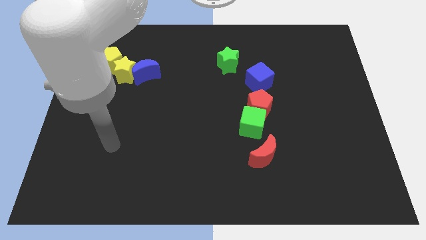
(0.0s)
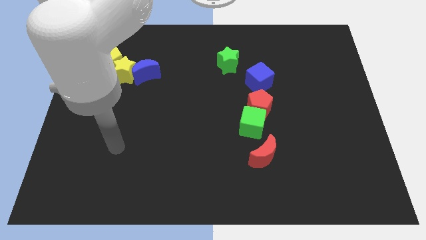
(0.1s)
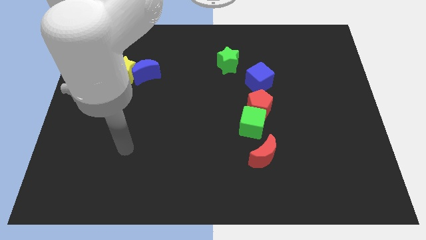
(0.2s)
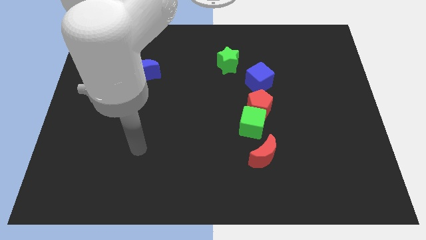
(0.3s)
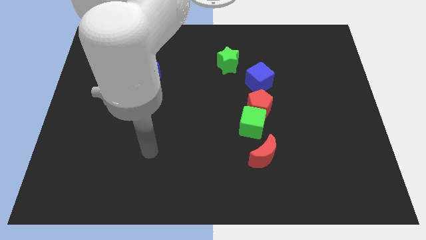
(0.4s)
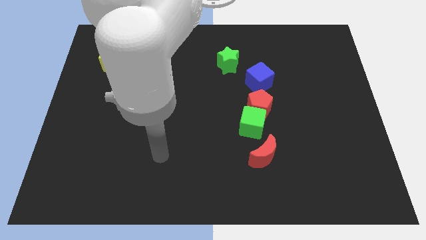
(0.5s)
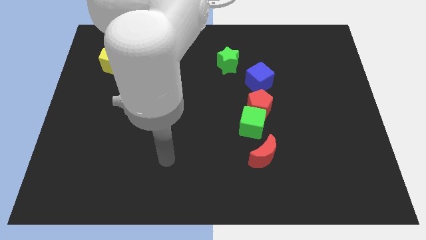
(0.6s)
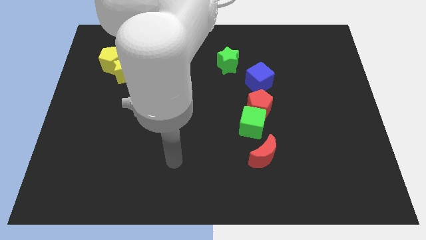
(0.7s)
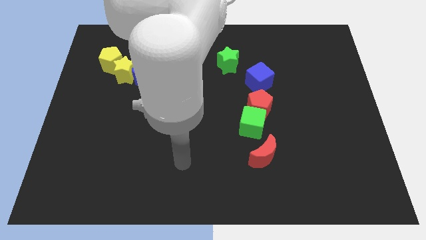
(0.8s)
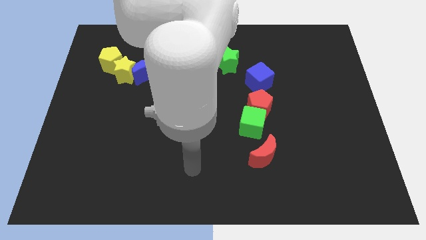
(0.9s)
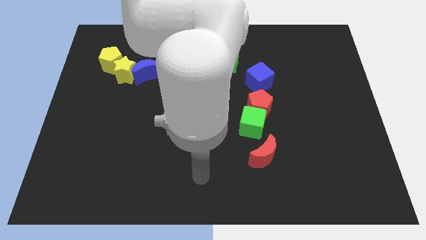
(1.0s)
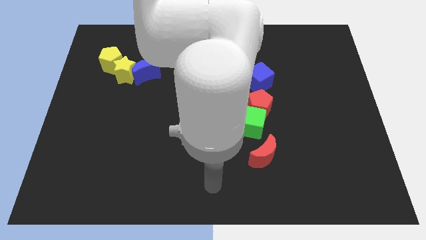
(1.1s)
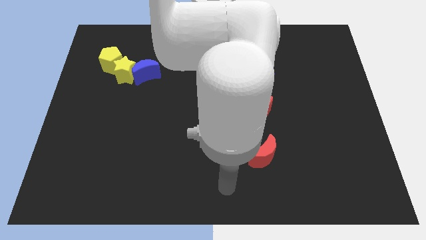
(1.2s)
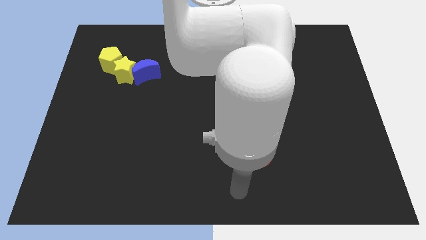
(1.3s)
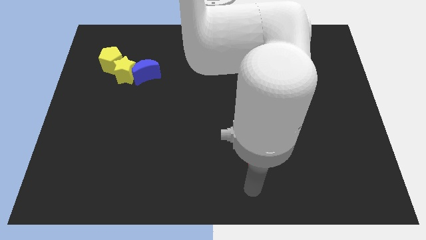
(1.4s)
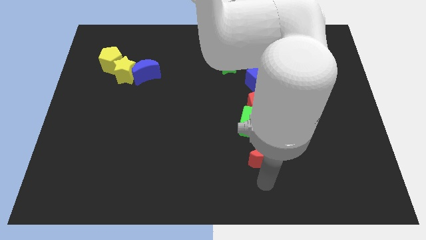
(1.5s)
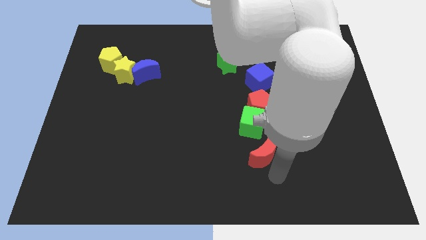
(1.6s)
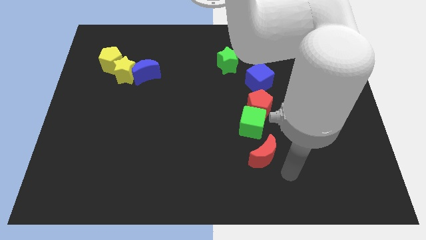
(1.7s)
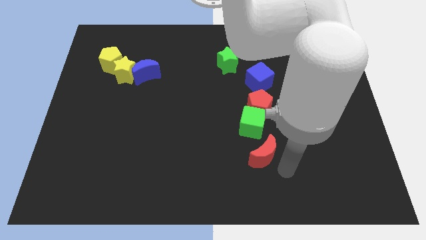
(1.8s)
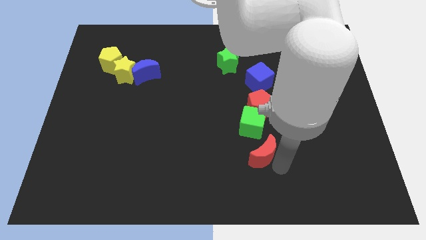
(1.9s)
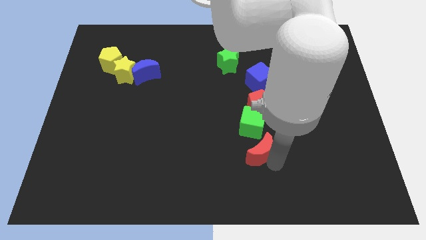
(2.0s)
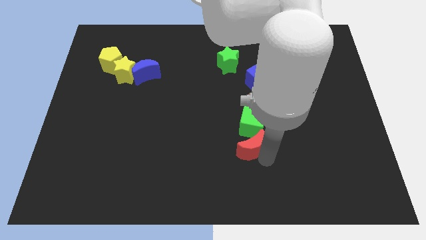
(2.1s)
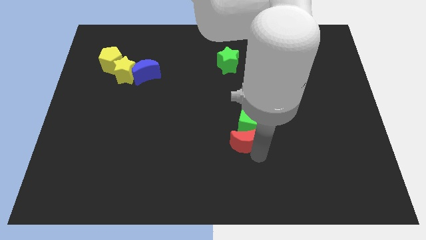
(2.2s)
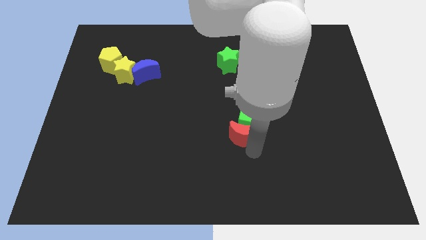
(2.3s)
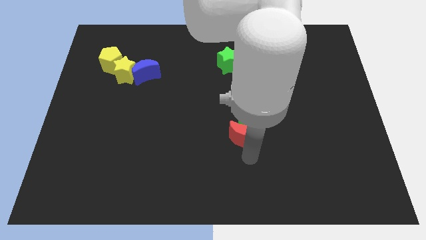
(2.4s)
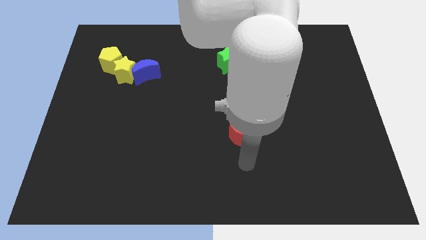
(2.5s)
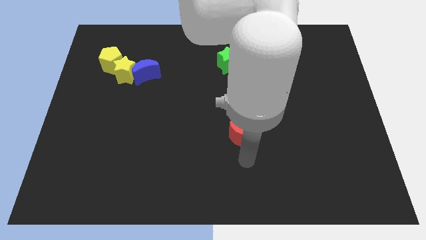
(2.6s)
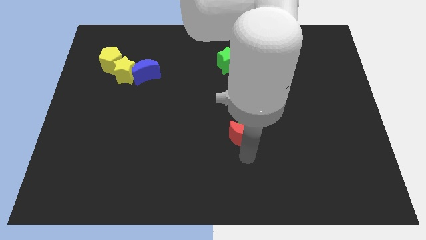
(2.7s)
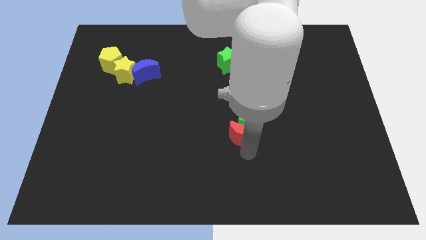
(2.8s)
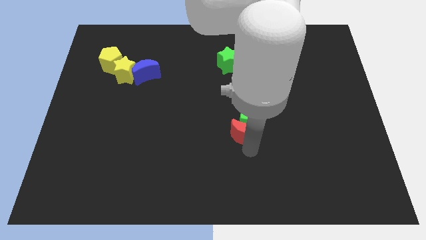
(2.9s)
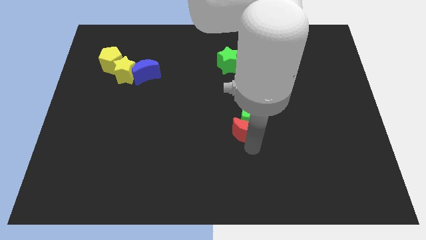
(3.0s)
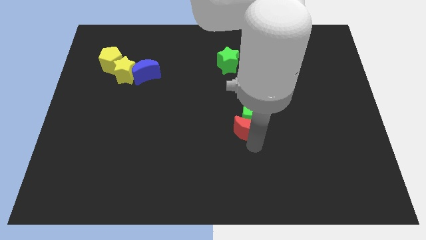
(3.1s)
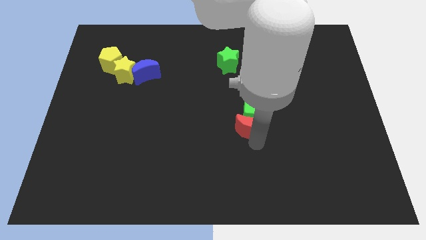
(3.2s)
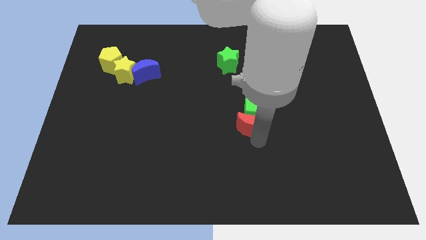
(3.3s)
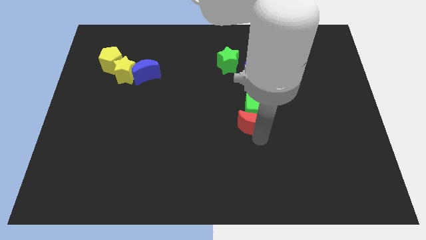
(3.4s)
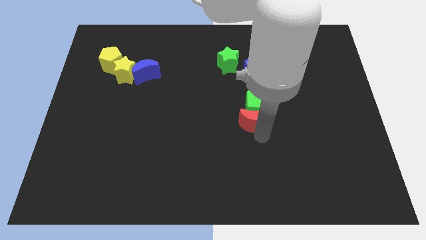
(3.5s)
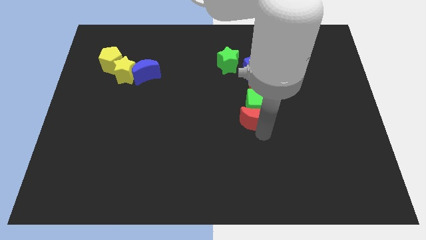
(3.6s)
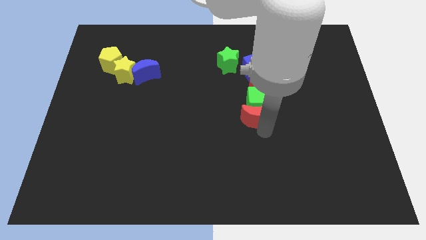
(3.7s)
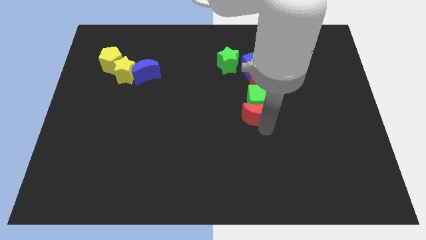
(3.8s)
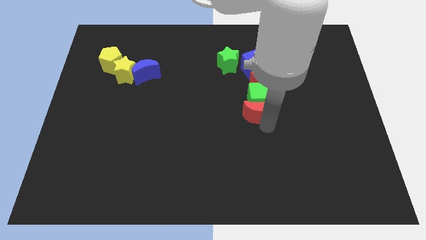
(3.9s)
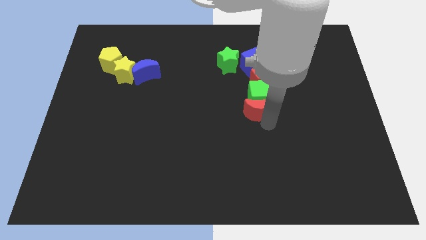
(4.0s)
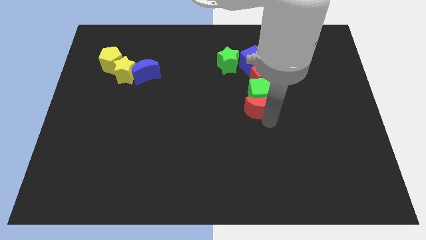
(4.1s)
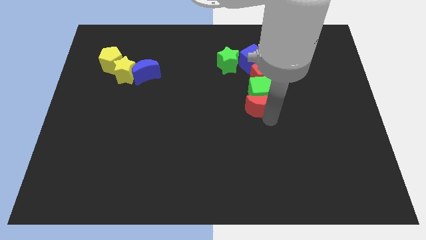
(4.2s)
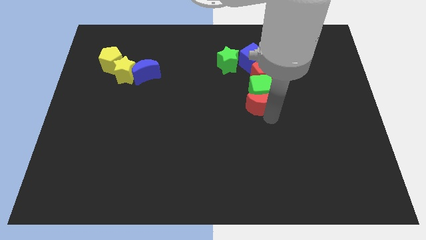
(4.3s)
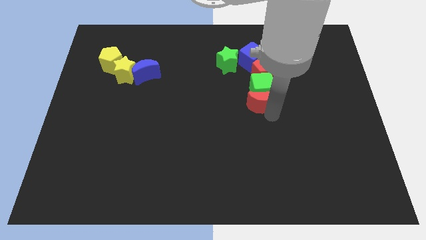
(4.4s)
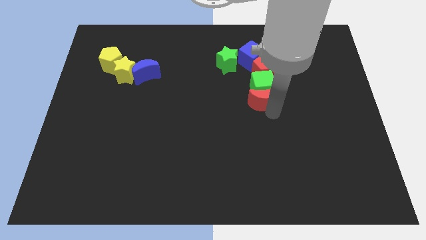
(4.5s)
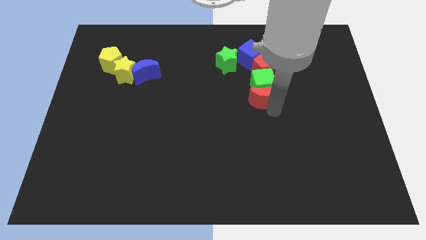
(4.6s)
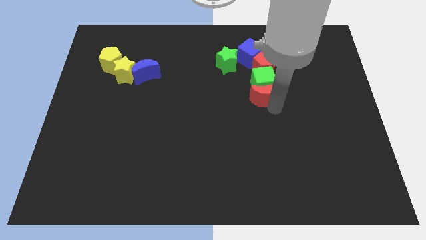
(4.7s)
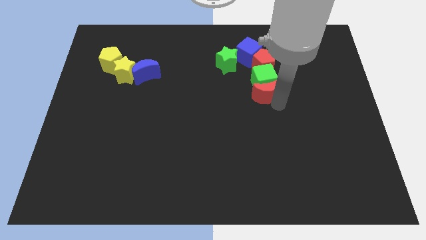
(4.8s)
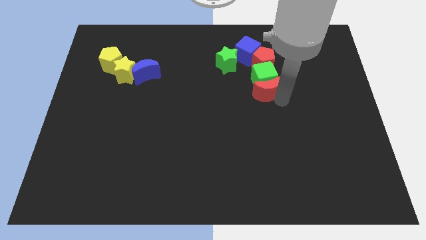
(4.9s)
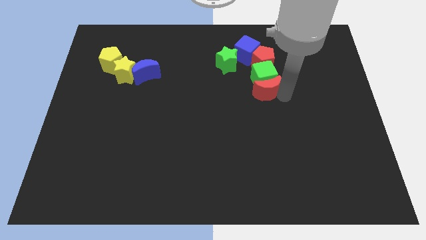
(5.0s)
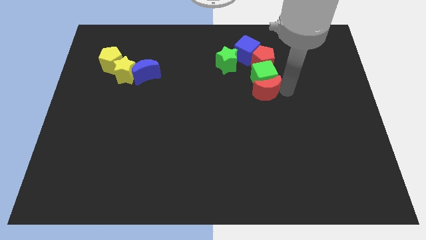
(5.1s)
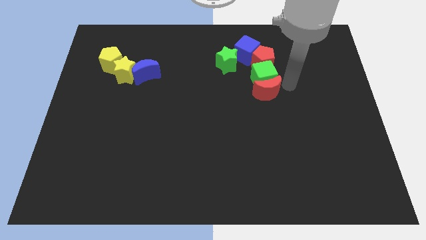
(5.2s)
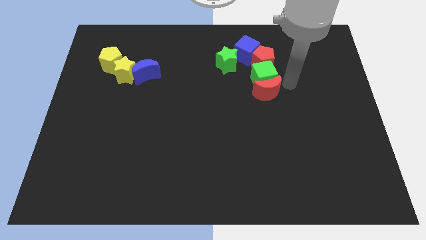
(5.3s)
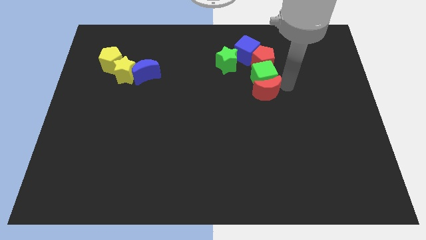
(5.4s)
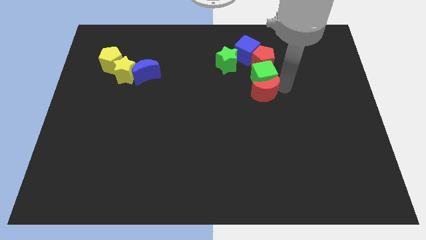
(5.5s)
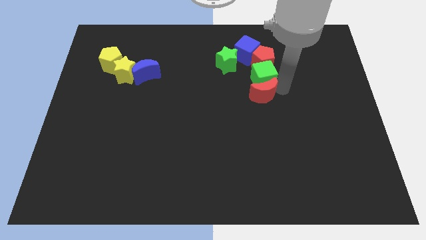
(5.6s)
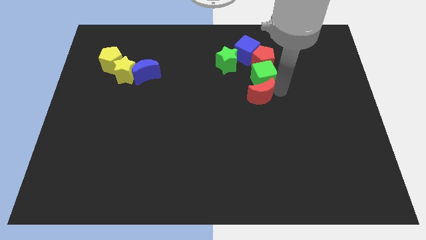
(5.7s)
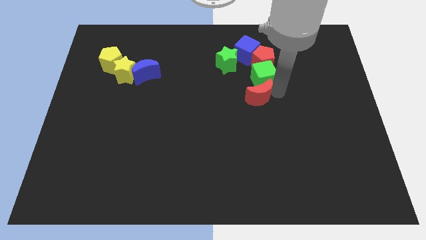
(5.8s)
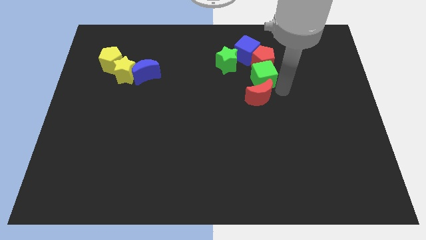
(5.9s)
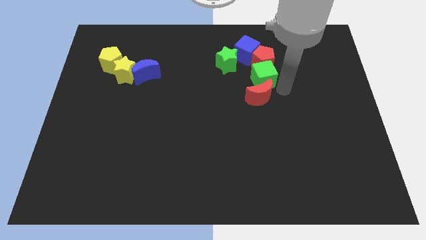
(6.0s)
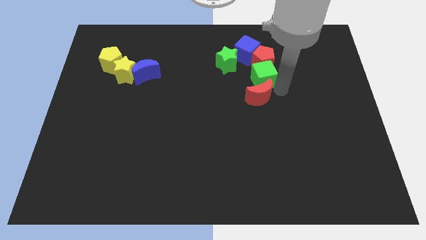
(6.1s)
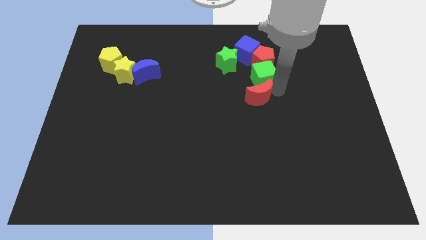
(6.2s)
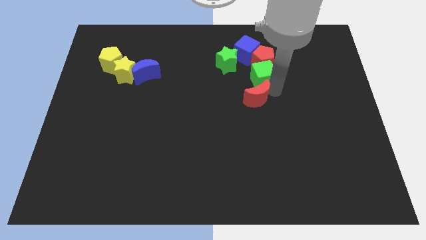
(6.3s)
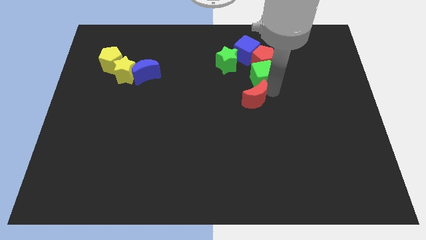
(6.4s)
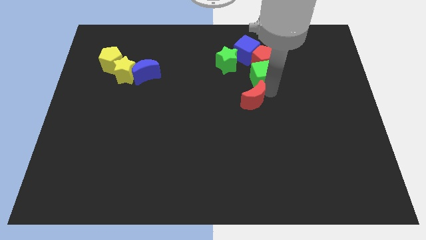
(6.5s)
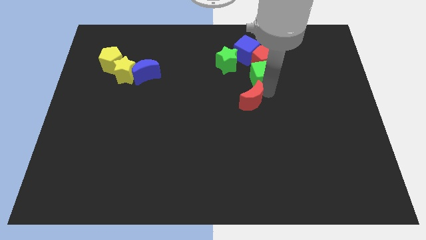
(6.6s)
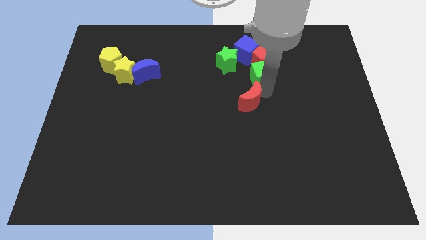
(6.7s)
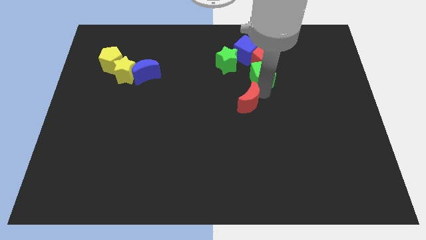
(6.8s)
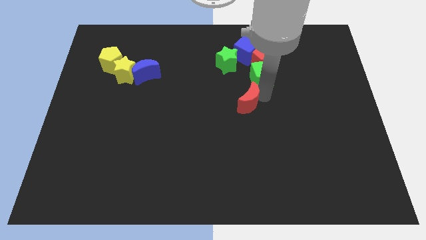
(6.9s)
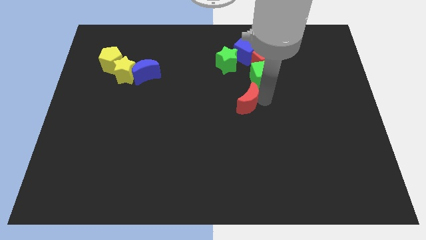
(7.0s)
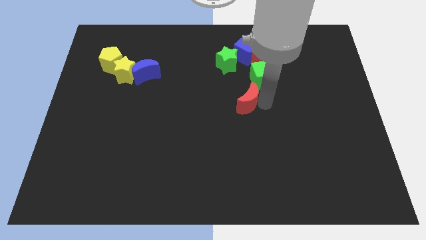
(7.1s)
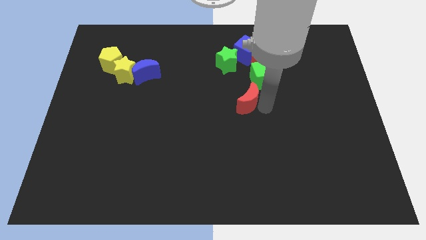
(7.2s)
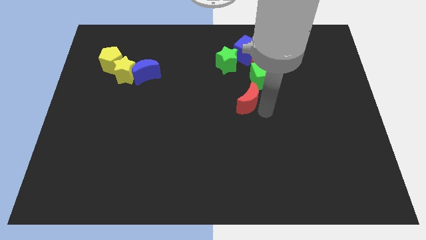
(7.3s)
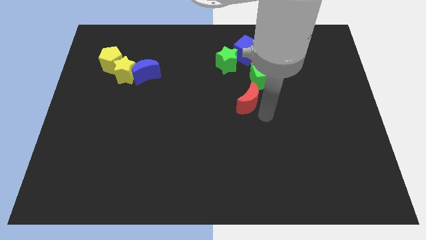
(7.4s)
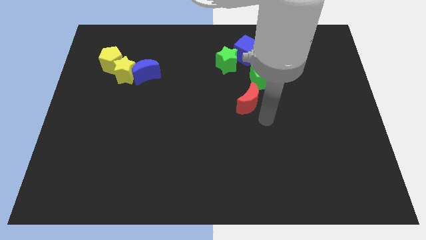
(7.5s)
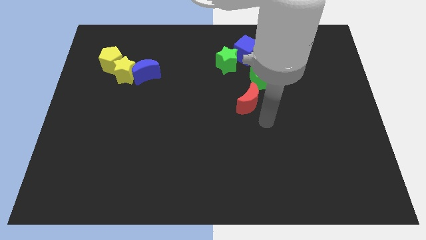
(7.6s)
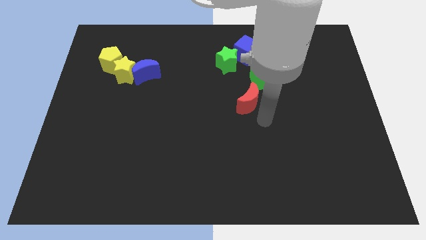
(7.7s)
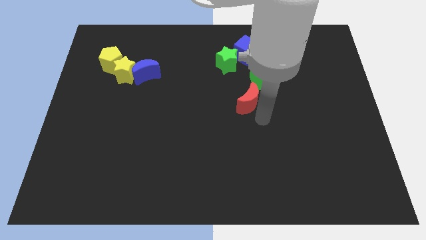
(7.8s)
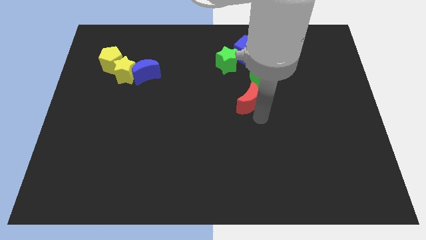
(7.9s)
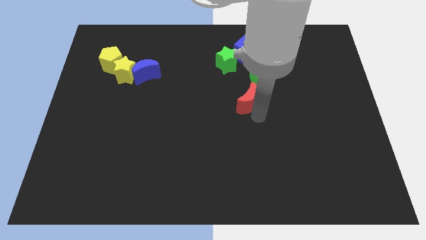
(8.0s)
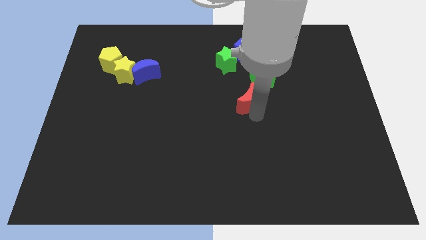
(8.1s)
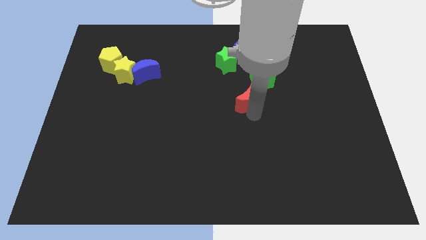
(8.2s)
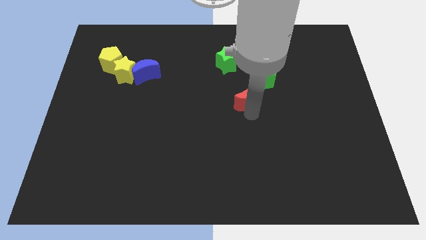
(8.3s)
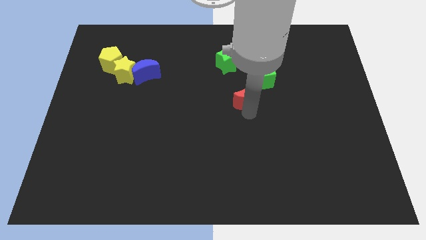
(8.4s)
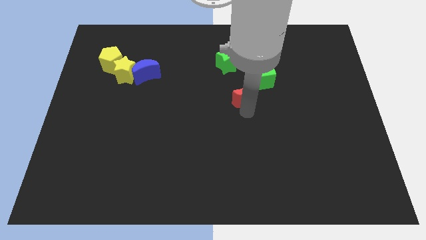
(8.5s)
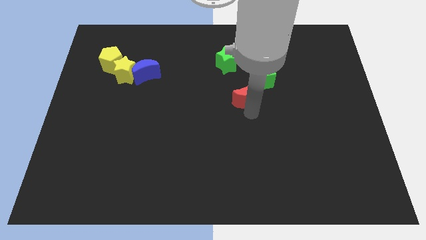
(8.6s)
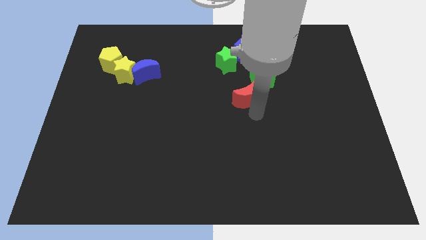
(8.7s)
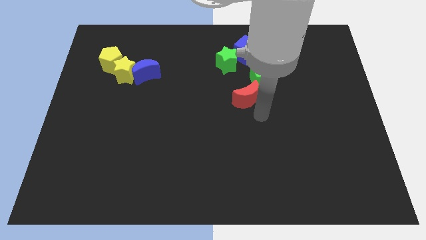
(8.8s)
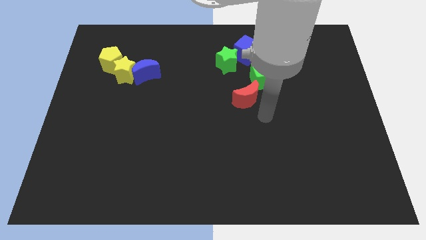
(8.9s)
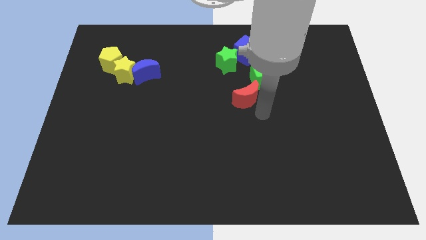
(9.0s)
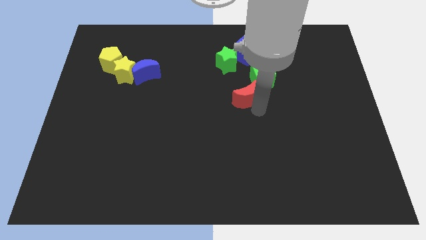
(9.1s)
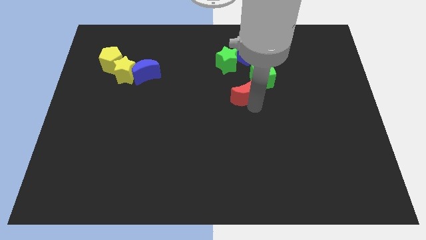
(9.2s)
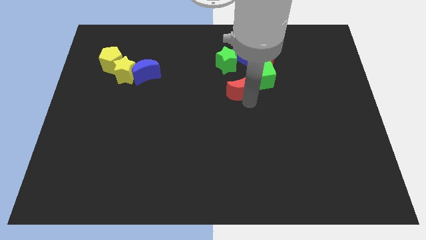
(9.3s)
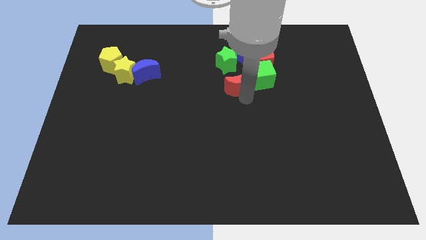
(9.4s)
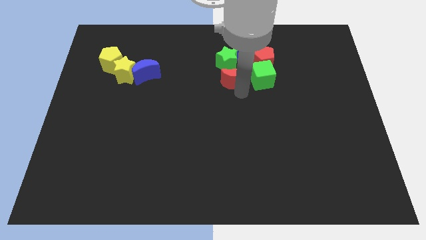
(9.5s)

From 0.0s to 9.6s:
move the red moon next to the green star
